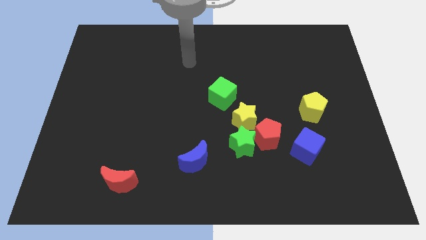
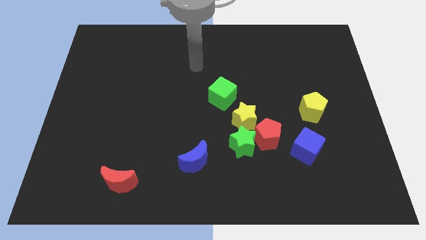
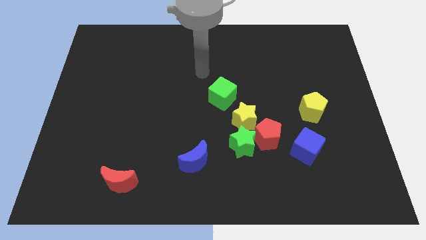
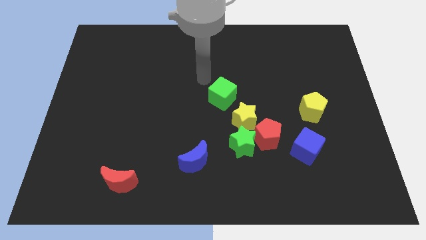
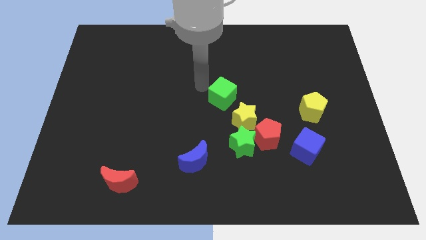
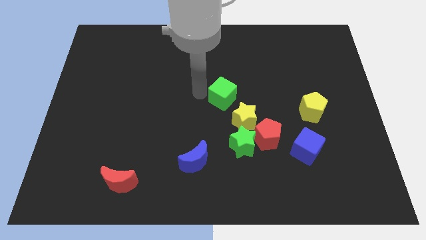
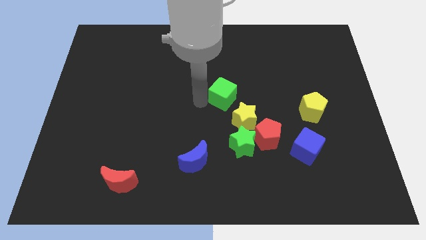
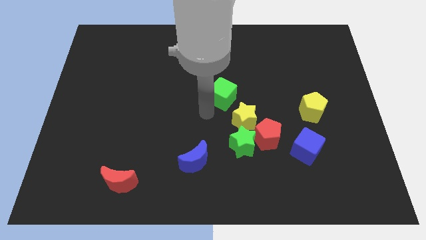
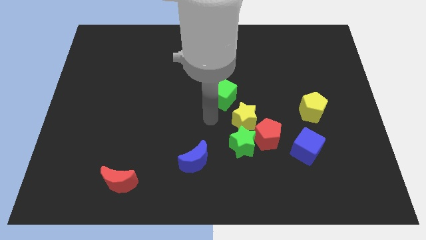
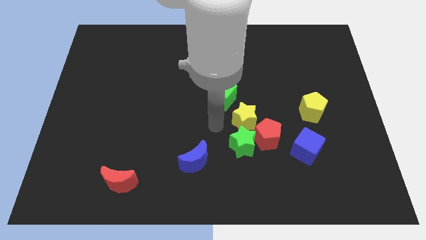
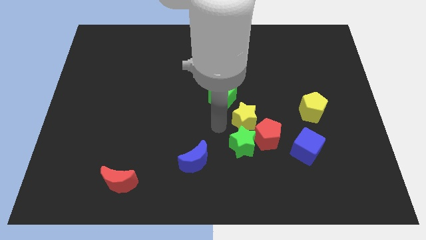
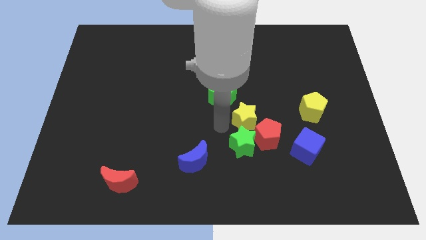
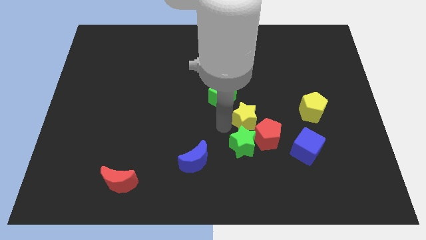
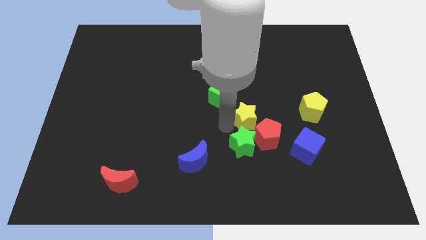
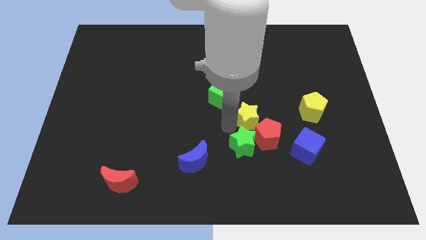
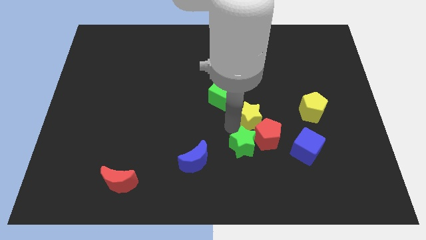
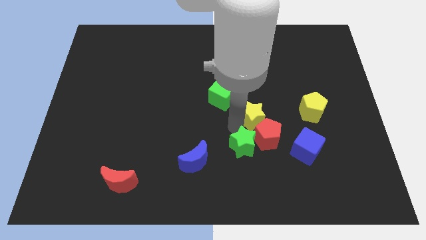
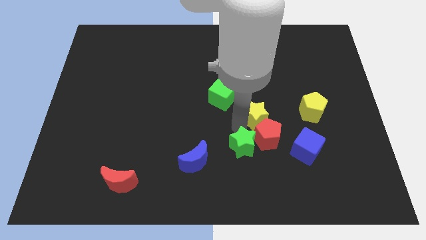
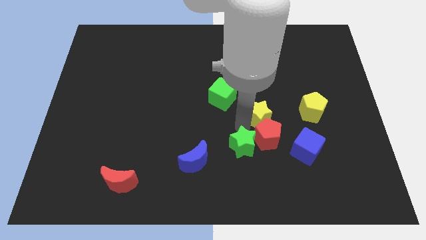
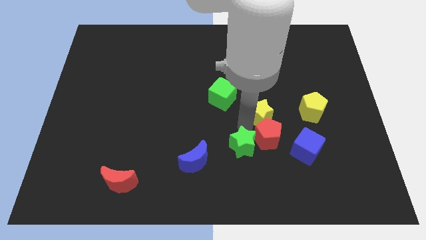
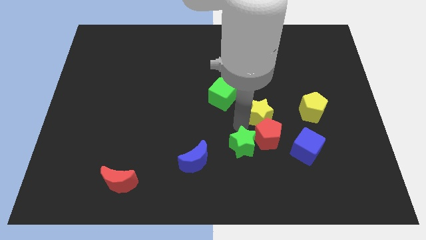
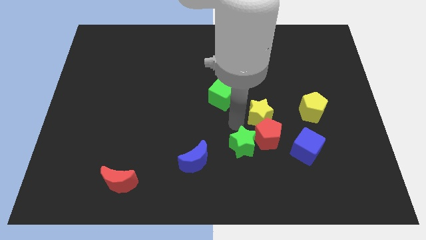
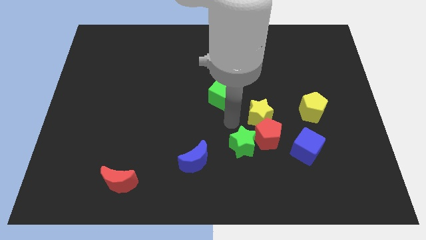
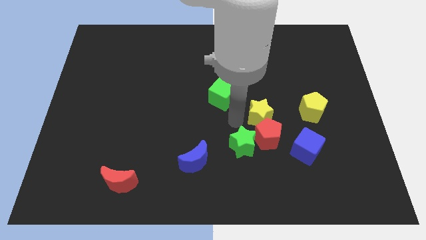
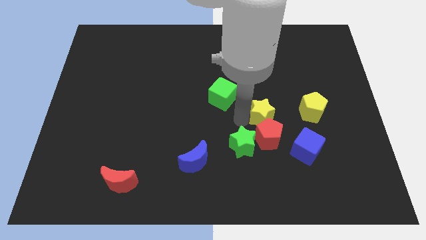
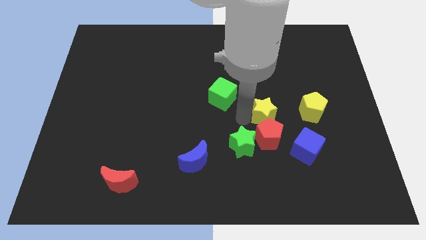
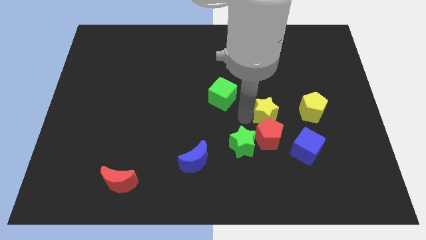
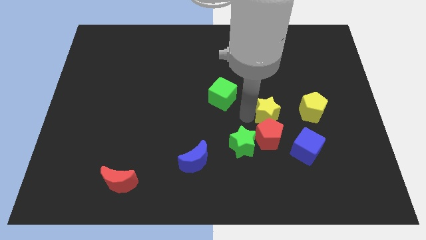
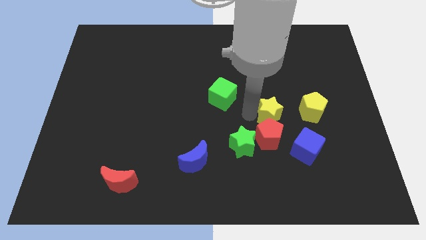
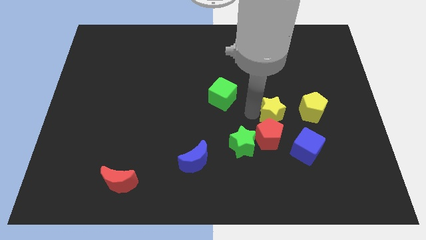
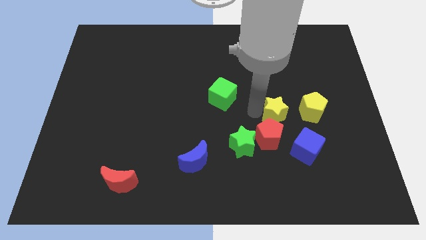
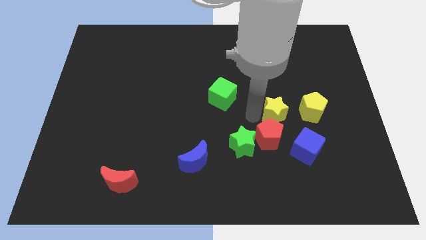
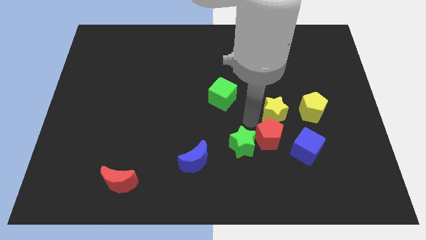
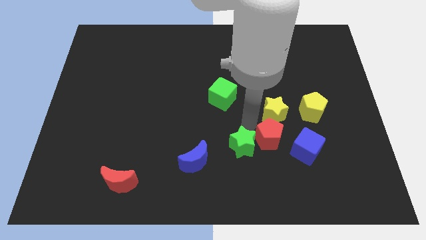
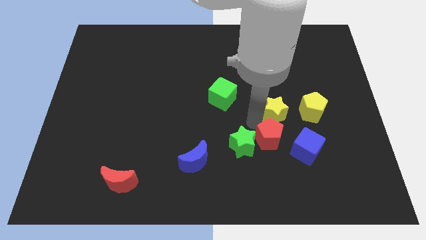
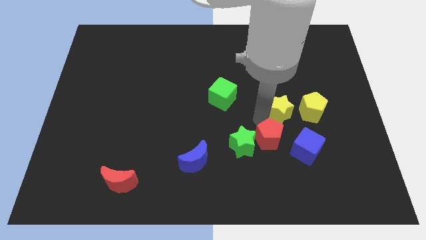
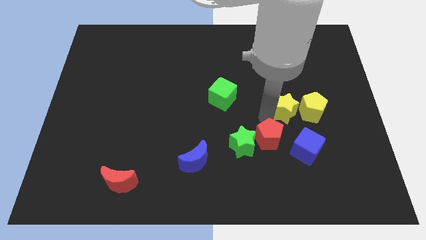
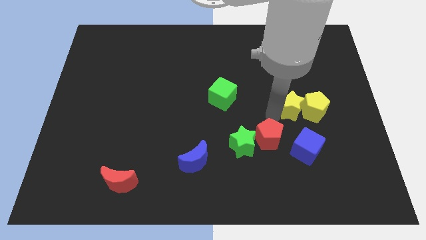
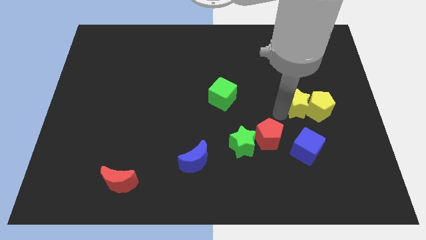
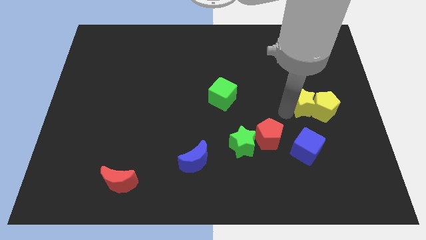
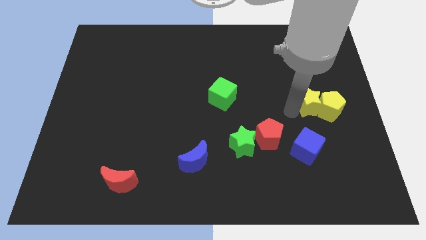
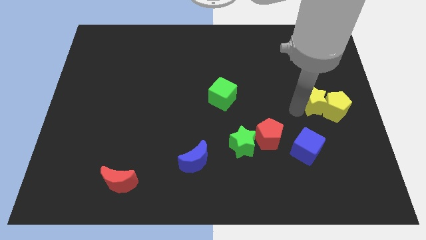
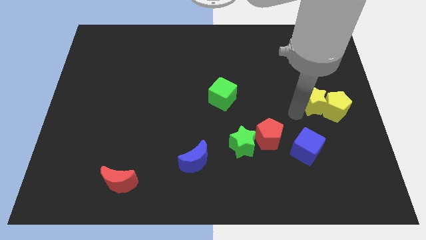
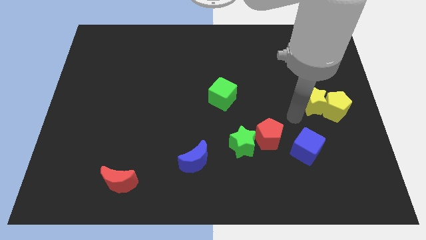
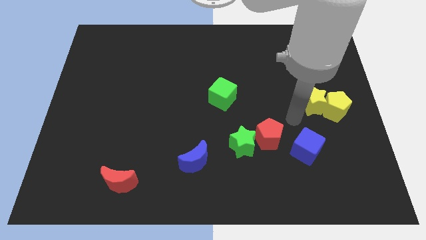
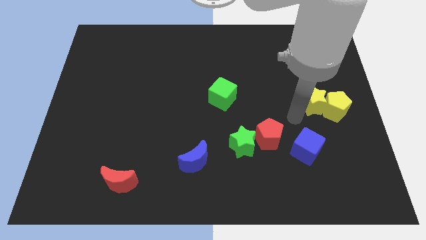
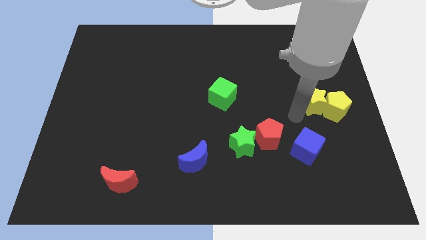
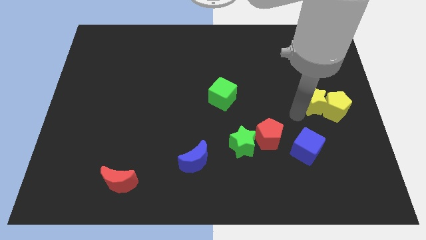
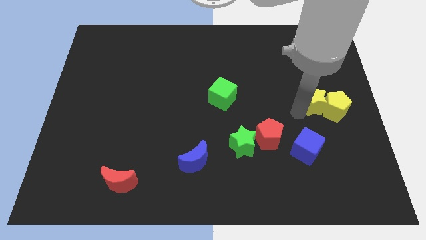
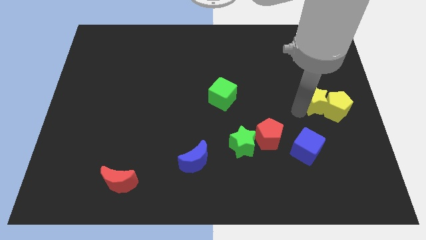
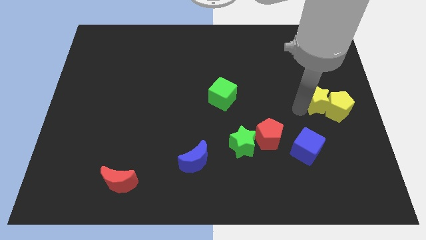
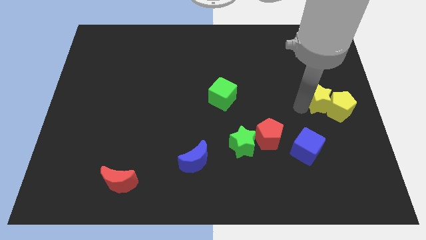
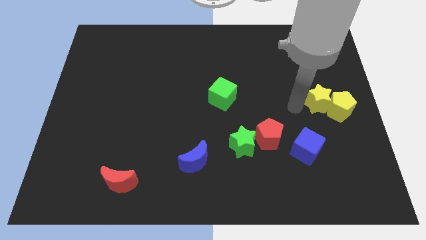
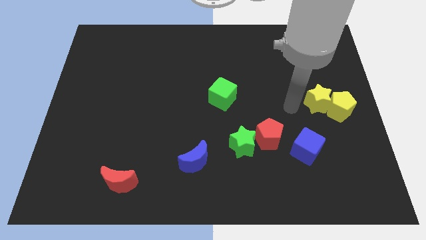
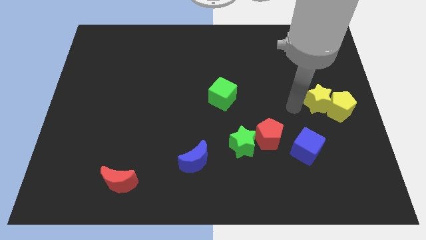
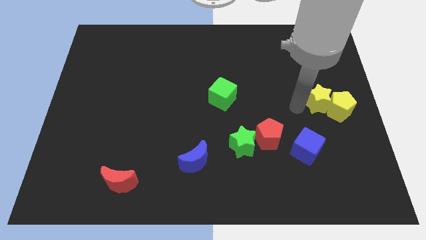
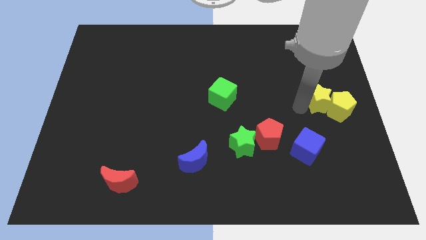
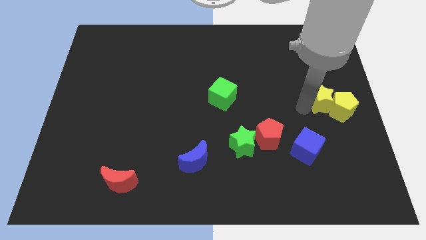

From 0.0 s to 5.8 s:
slide the yellow star to the right side of the board

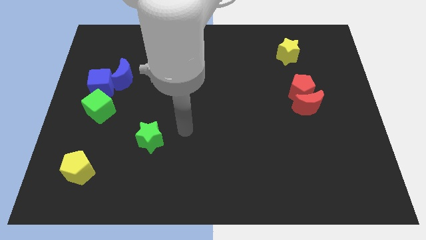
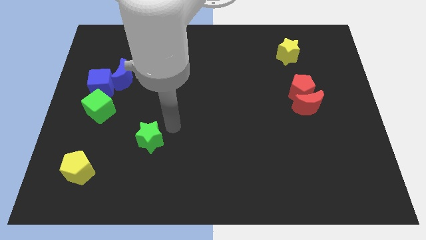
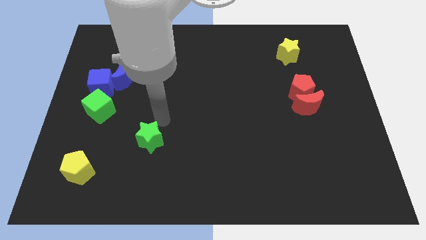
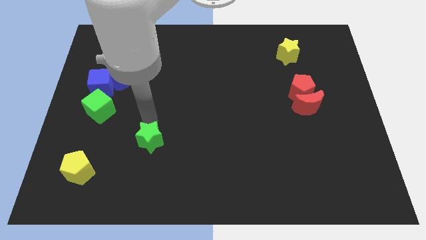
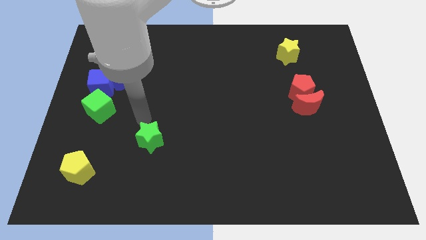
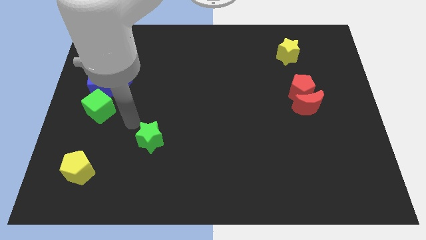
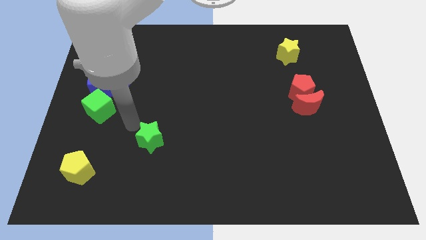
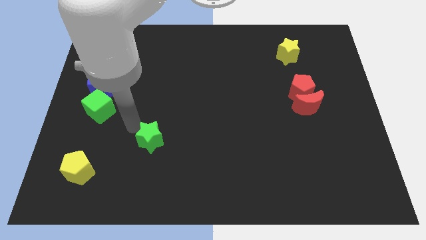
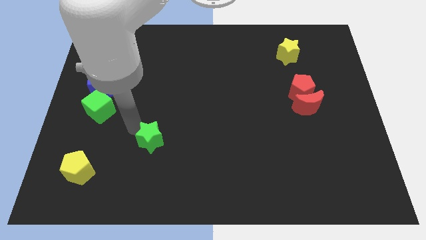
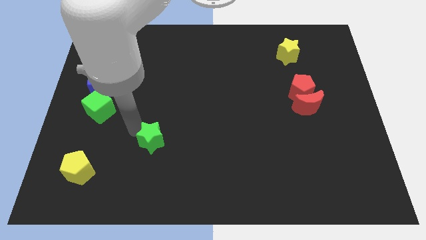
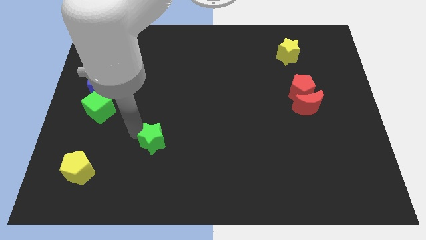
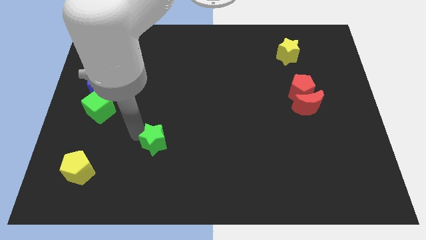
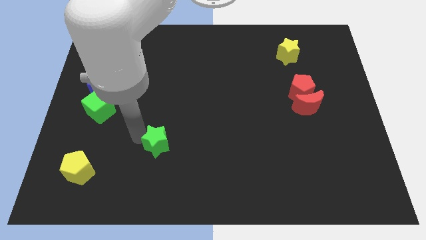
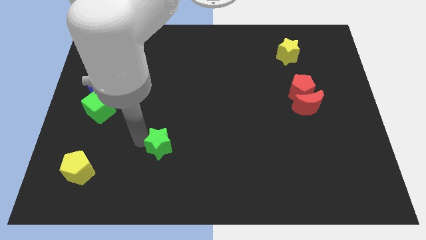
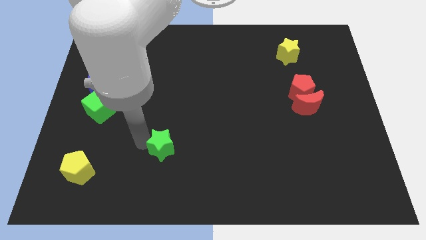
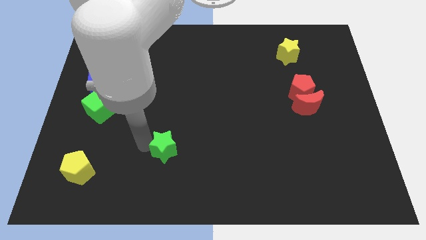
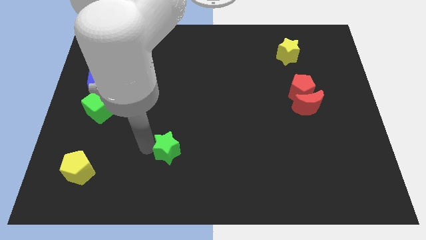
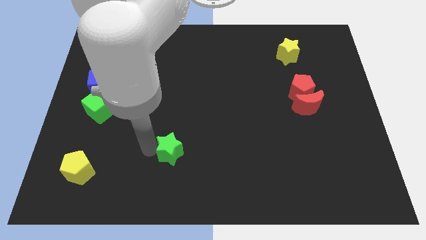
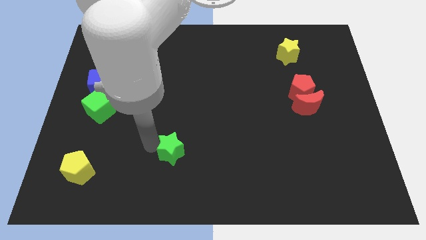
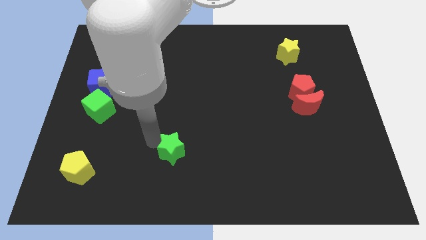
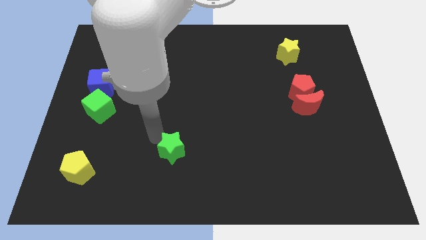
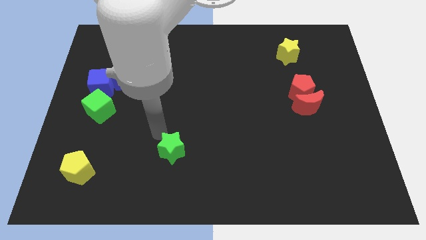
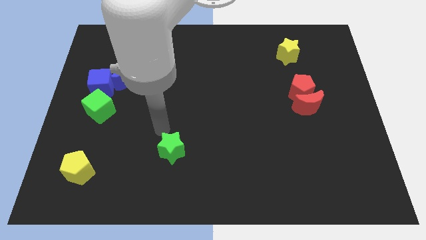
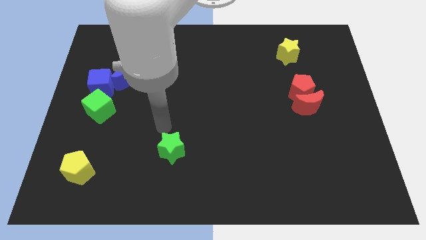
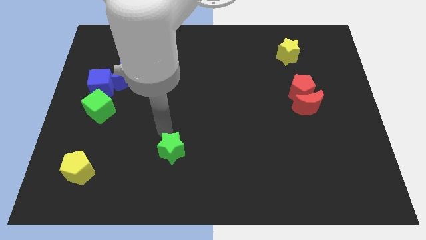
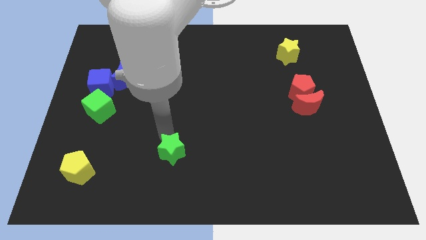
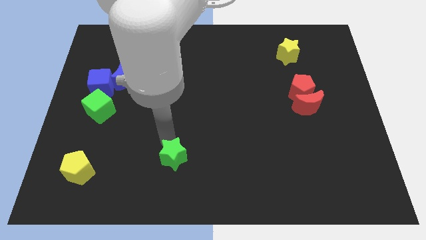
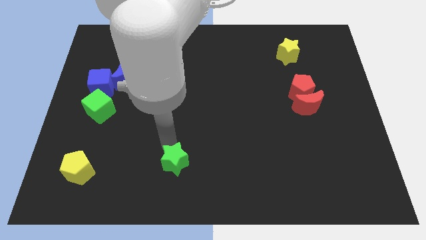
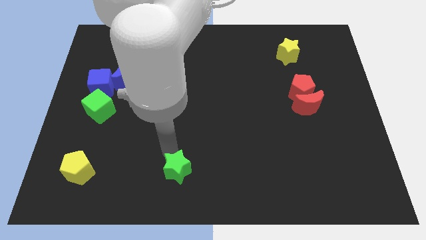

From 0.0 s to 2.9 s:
push the green star to the bottom side
